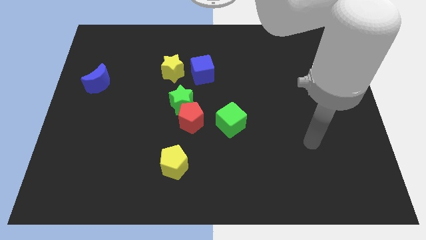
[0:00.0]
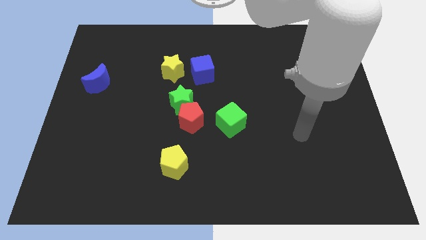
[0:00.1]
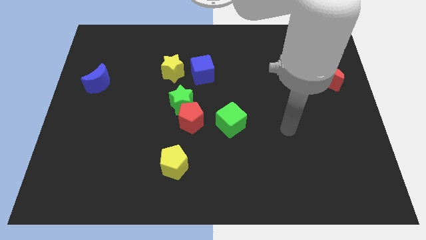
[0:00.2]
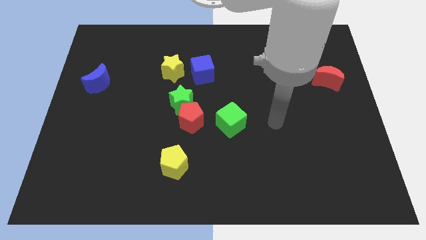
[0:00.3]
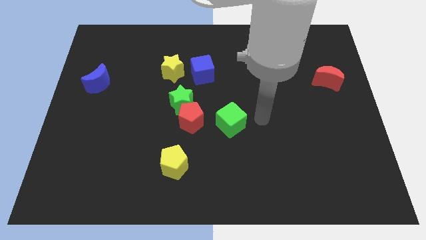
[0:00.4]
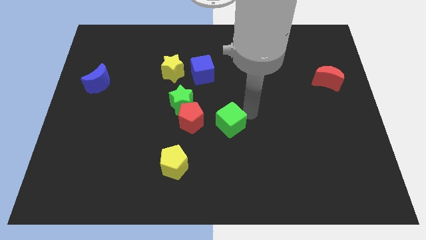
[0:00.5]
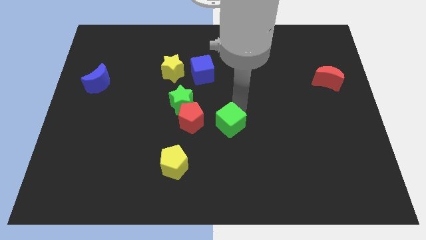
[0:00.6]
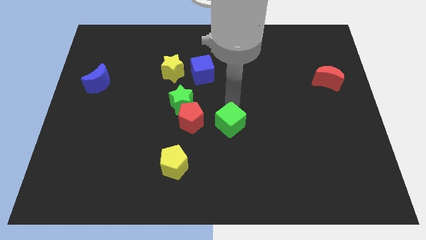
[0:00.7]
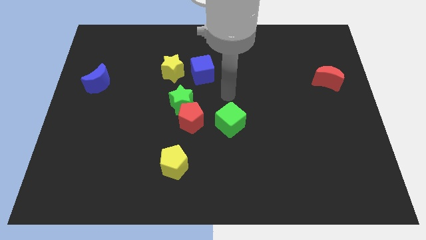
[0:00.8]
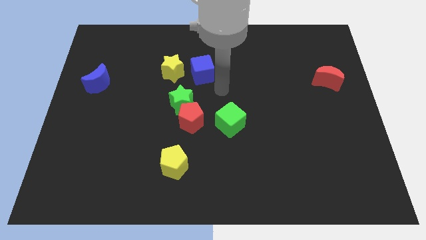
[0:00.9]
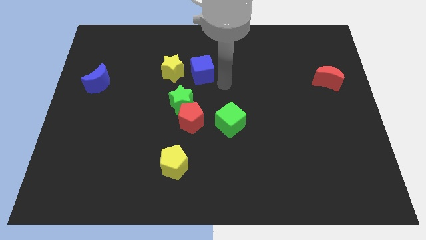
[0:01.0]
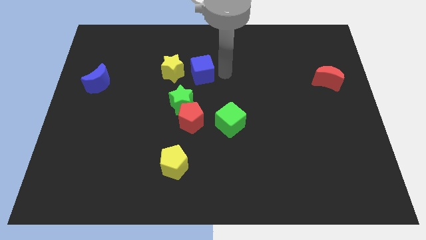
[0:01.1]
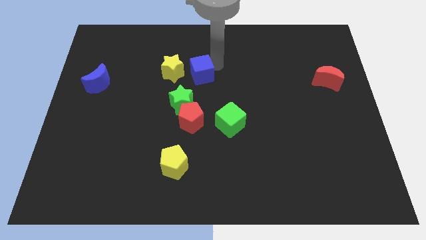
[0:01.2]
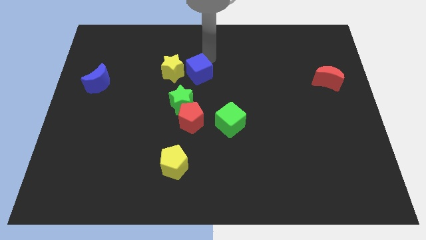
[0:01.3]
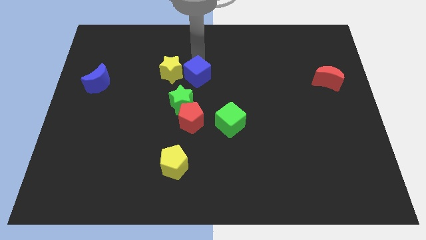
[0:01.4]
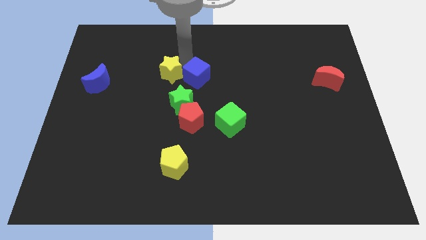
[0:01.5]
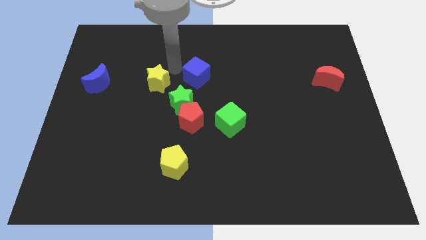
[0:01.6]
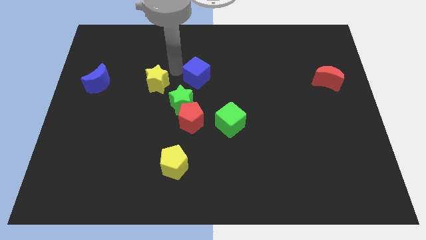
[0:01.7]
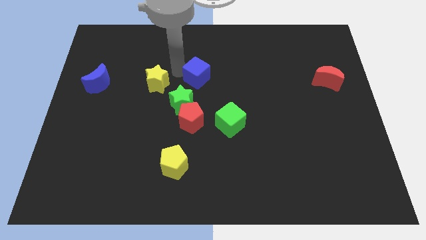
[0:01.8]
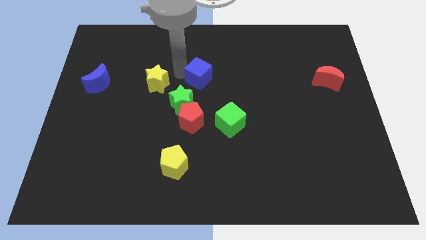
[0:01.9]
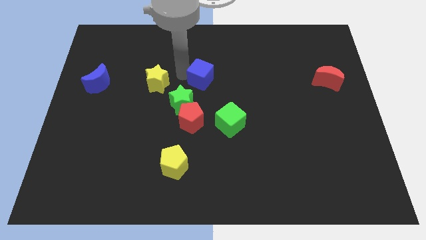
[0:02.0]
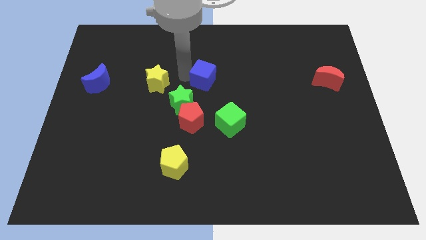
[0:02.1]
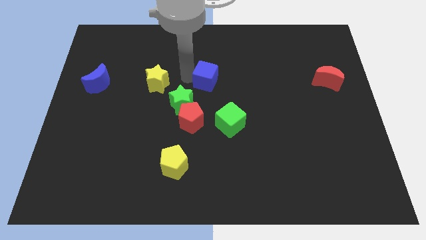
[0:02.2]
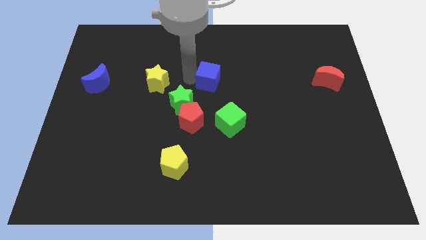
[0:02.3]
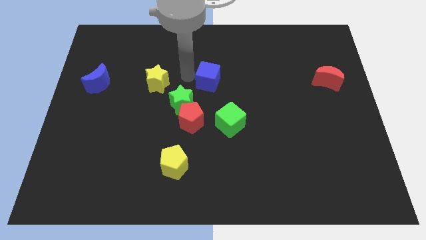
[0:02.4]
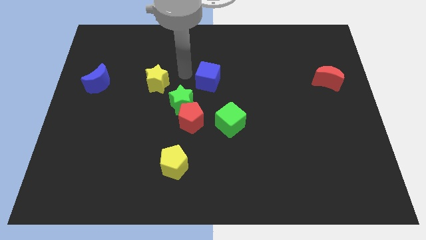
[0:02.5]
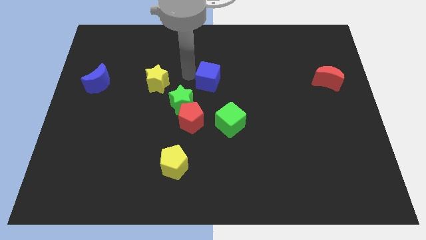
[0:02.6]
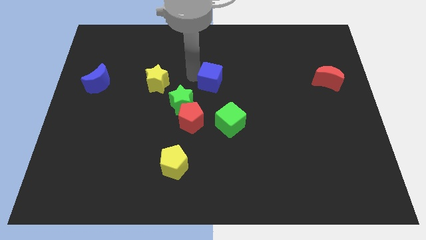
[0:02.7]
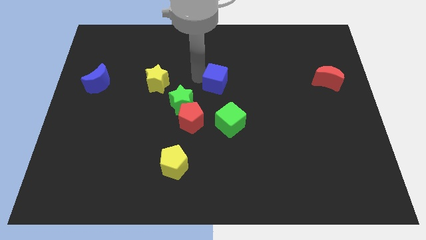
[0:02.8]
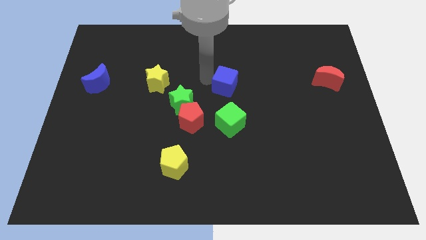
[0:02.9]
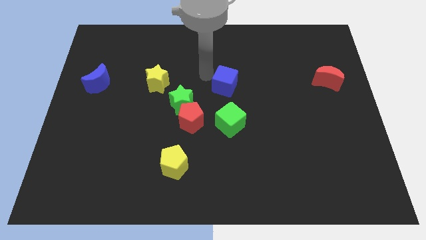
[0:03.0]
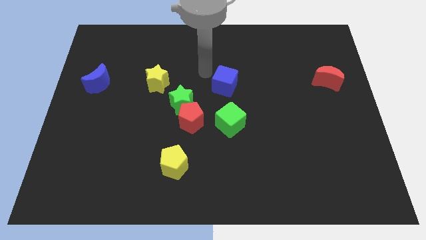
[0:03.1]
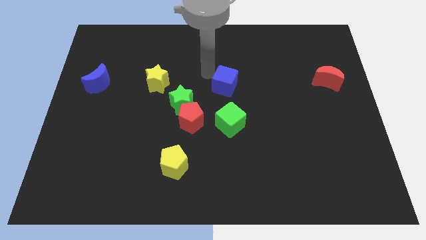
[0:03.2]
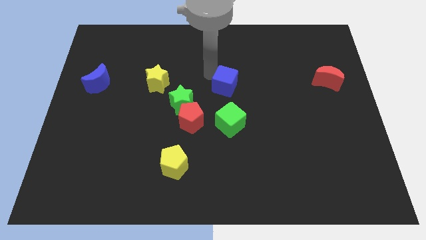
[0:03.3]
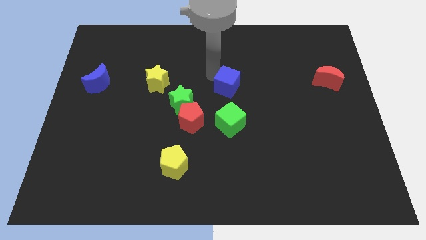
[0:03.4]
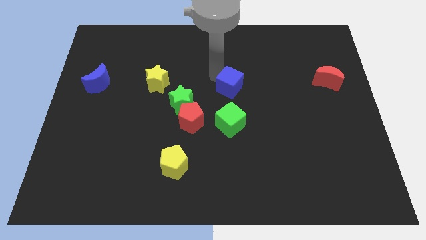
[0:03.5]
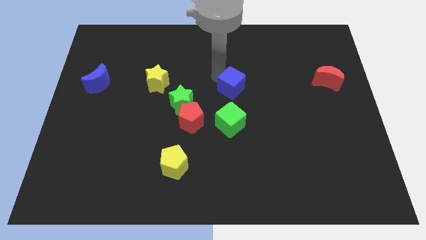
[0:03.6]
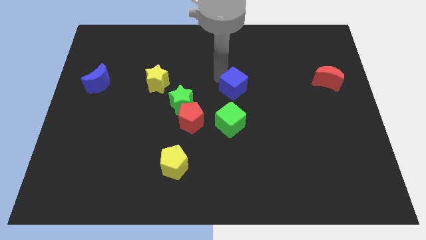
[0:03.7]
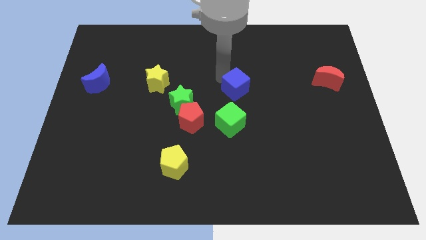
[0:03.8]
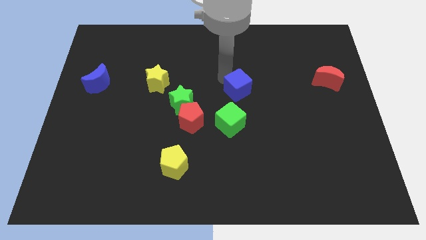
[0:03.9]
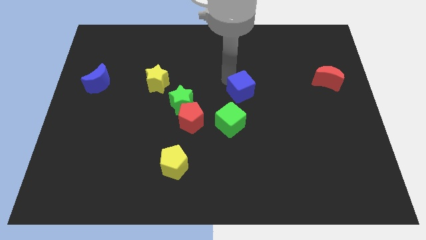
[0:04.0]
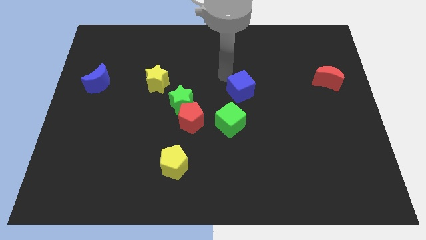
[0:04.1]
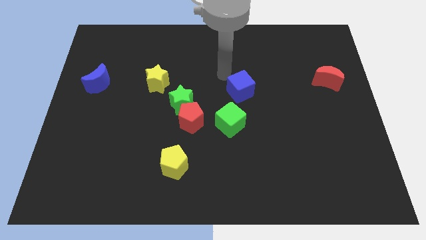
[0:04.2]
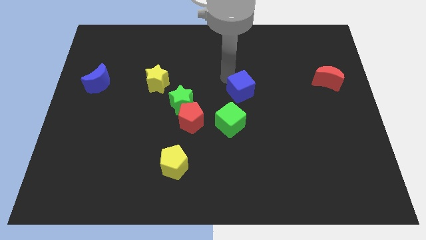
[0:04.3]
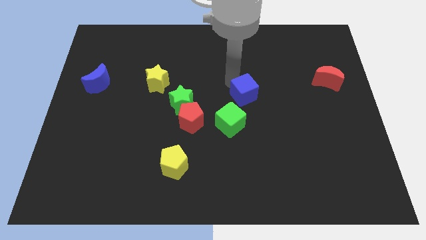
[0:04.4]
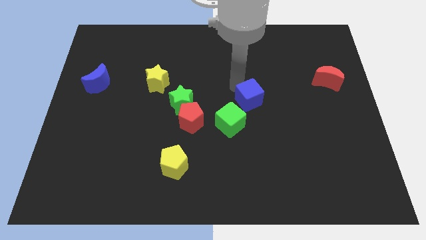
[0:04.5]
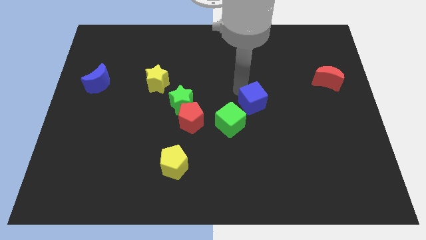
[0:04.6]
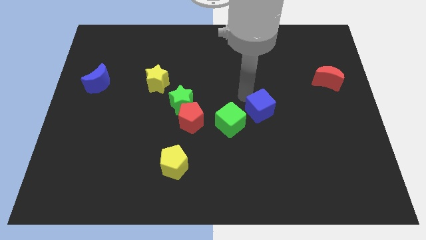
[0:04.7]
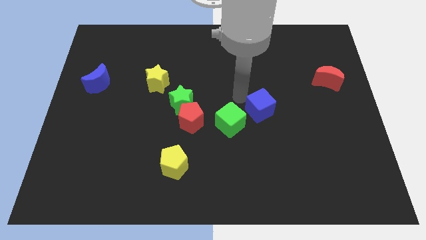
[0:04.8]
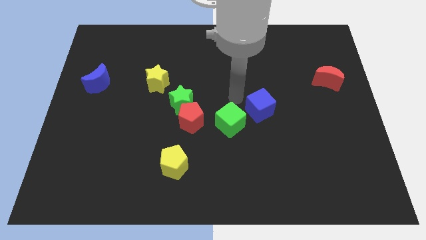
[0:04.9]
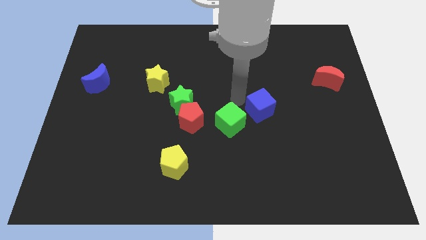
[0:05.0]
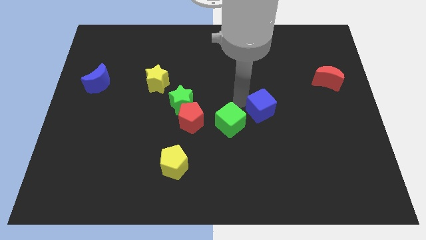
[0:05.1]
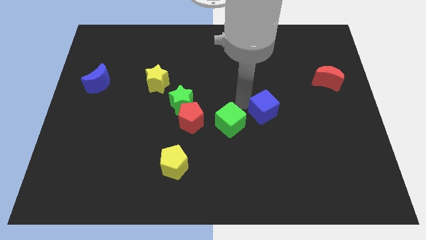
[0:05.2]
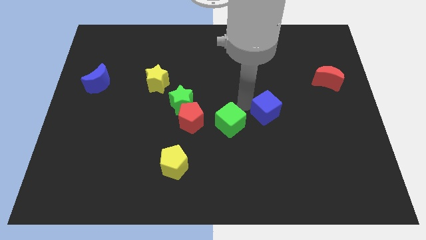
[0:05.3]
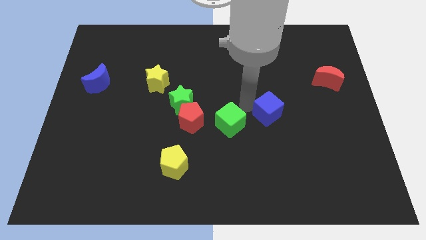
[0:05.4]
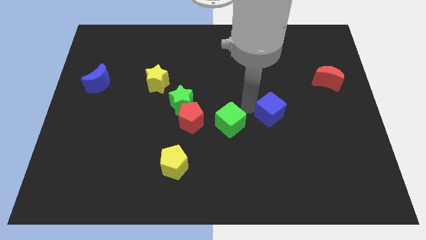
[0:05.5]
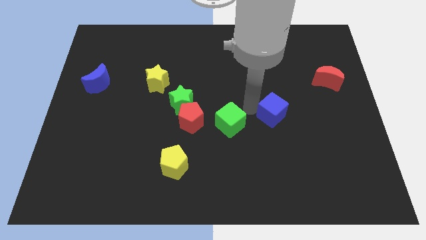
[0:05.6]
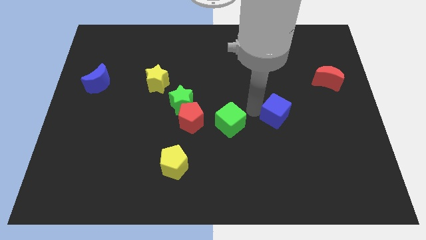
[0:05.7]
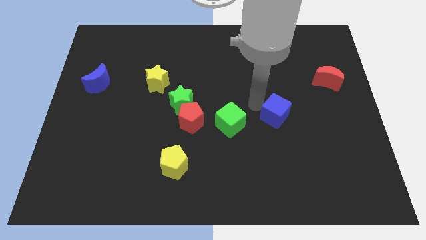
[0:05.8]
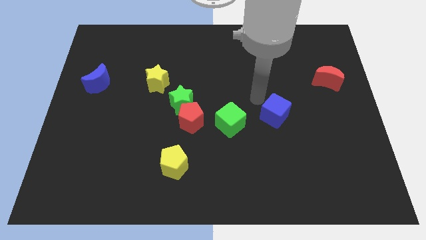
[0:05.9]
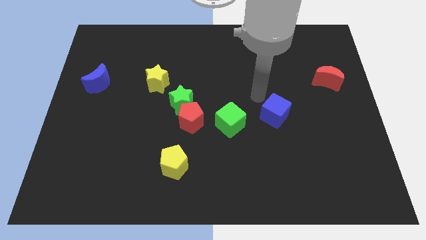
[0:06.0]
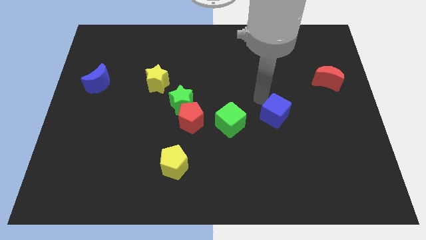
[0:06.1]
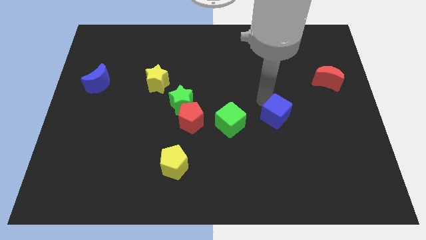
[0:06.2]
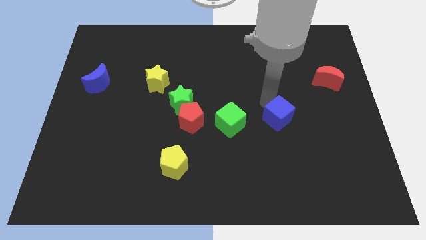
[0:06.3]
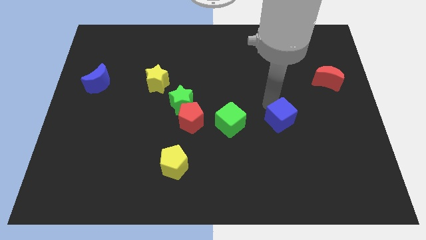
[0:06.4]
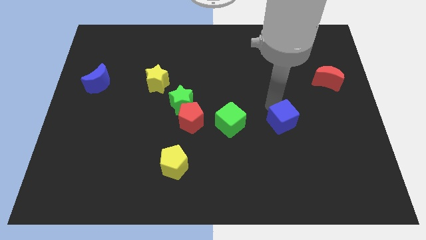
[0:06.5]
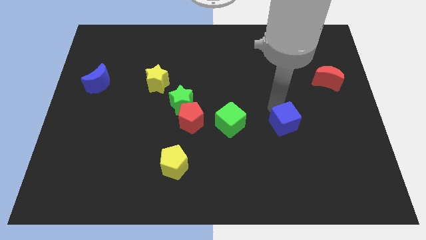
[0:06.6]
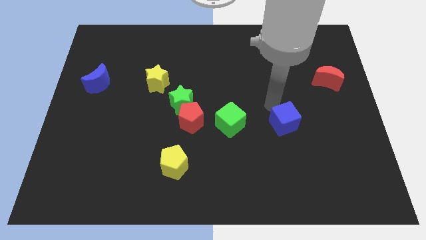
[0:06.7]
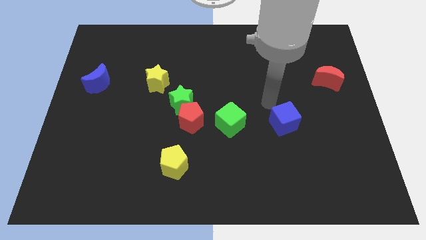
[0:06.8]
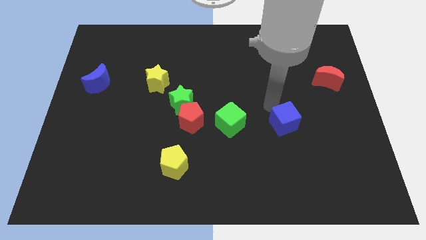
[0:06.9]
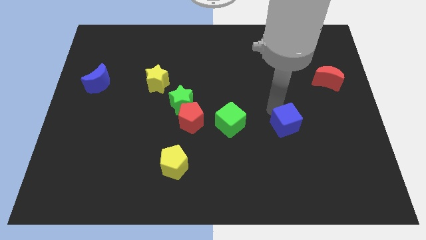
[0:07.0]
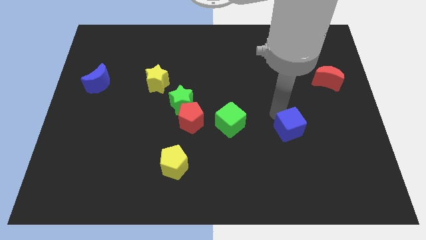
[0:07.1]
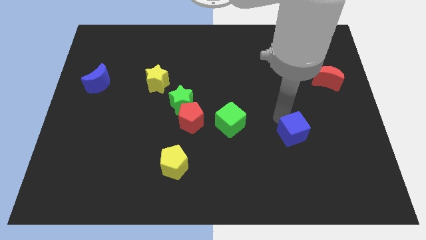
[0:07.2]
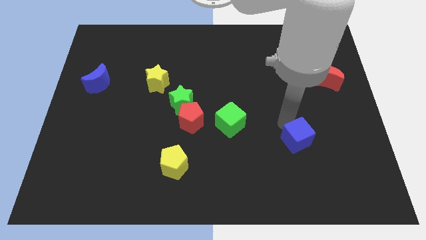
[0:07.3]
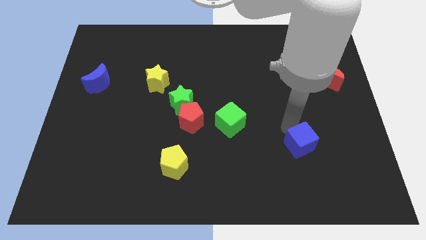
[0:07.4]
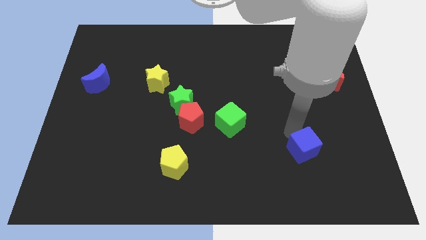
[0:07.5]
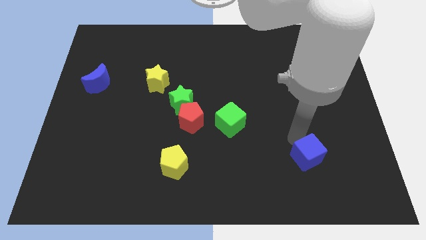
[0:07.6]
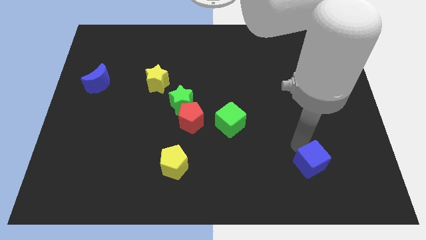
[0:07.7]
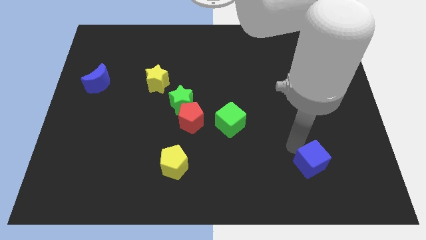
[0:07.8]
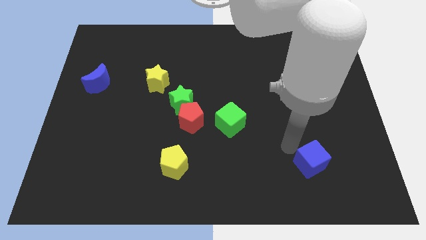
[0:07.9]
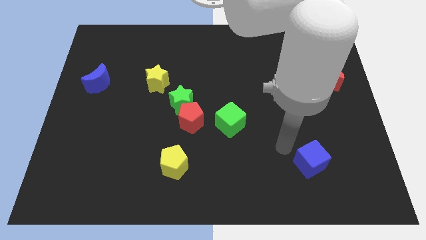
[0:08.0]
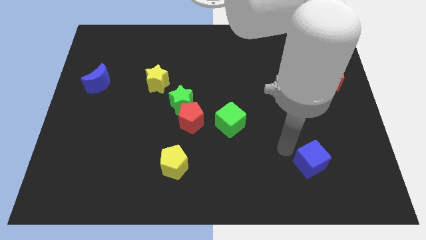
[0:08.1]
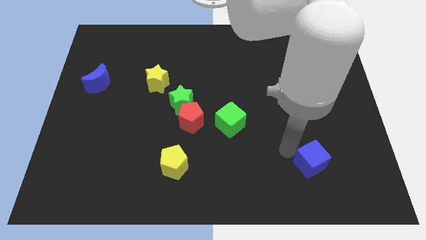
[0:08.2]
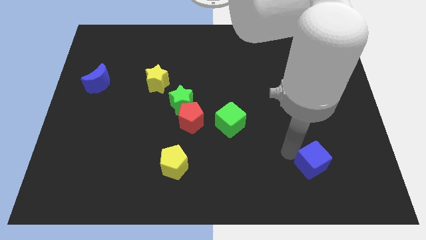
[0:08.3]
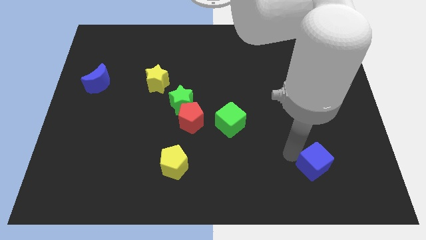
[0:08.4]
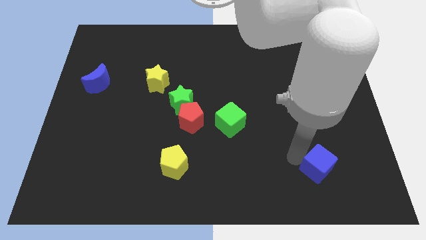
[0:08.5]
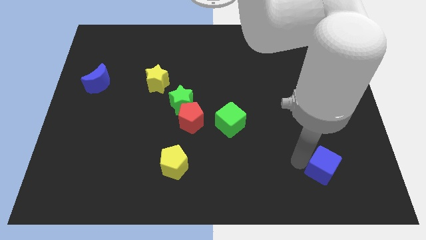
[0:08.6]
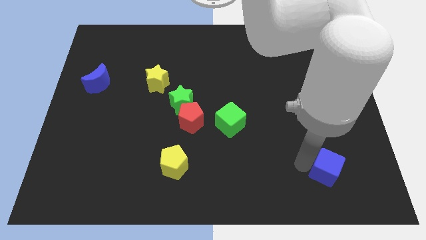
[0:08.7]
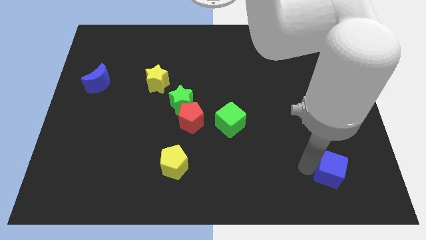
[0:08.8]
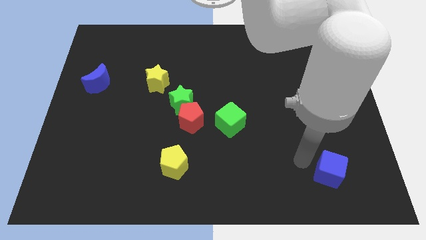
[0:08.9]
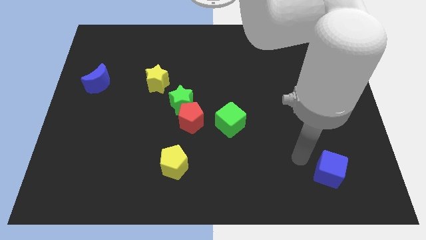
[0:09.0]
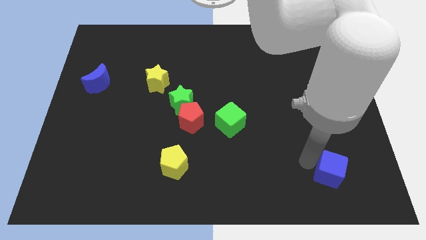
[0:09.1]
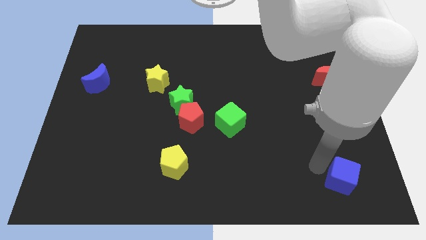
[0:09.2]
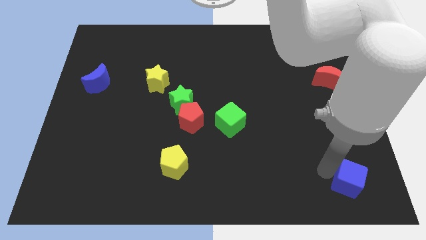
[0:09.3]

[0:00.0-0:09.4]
push the blue cube to the bottom right of the board
